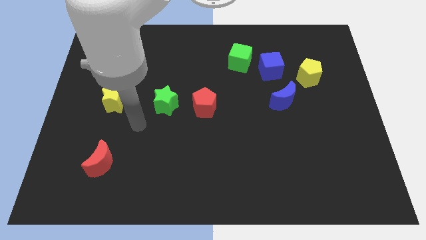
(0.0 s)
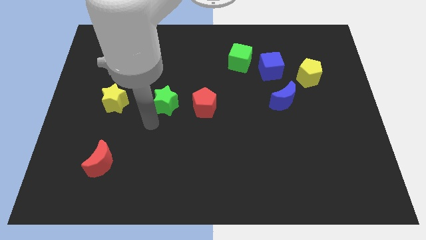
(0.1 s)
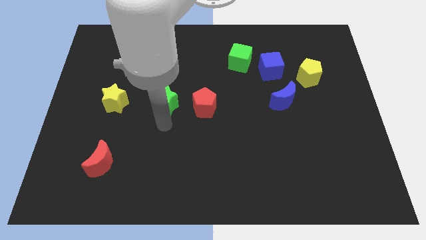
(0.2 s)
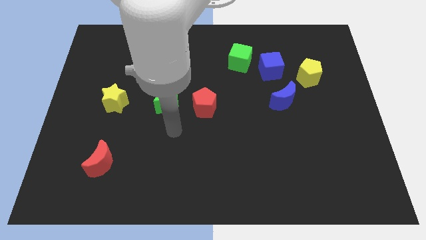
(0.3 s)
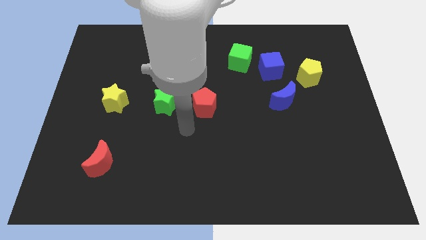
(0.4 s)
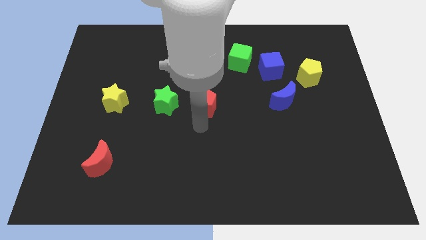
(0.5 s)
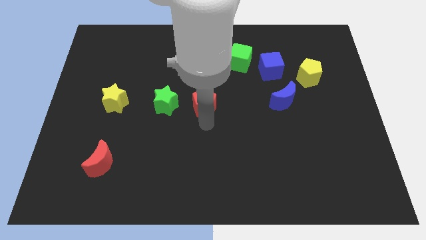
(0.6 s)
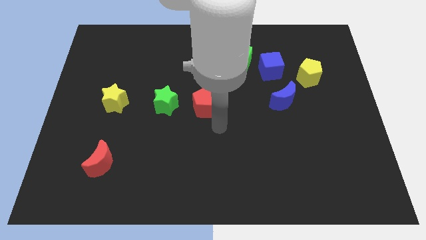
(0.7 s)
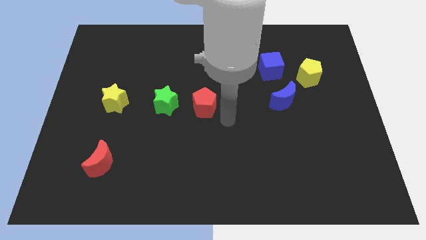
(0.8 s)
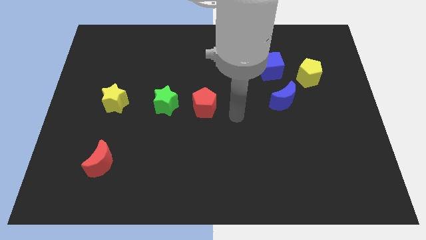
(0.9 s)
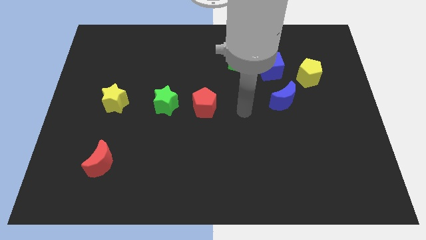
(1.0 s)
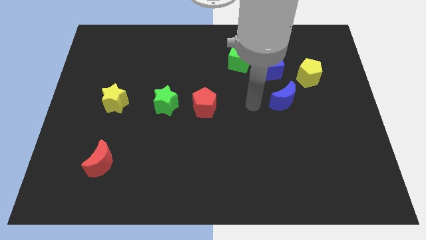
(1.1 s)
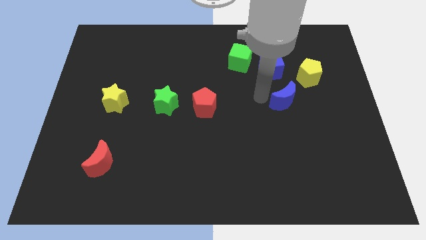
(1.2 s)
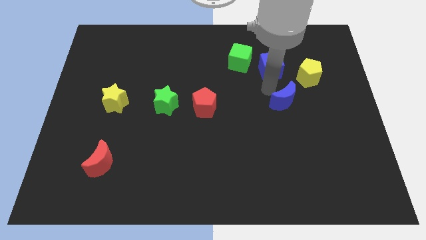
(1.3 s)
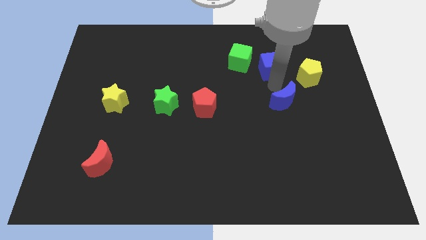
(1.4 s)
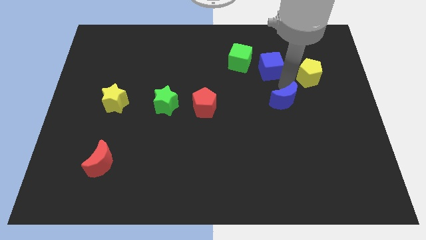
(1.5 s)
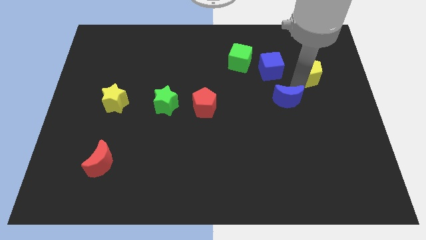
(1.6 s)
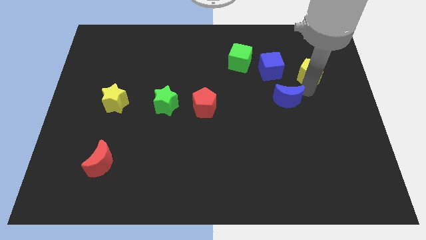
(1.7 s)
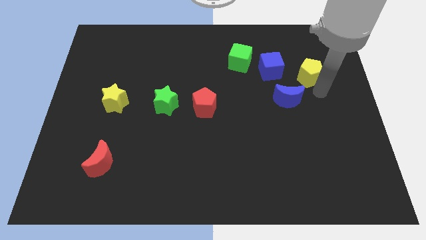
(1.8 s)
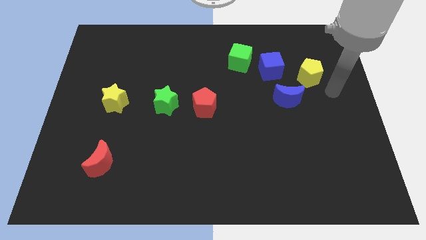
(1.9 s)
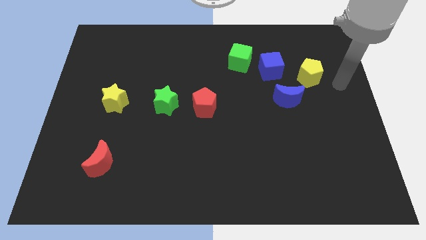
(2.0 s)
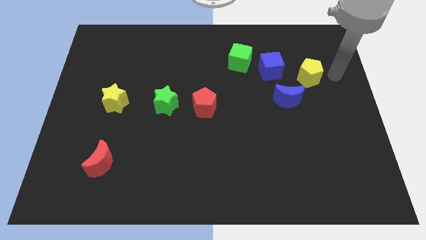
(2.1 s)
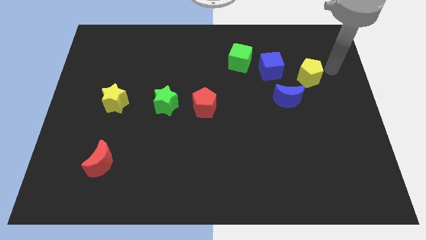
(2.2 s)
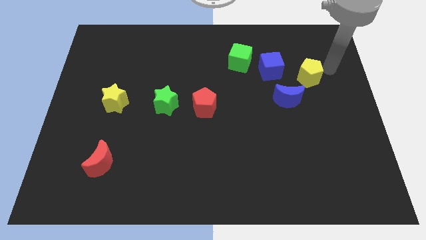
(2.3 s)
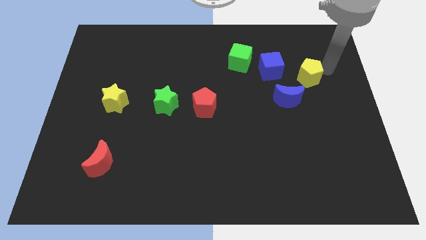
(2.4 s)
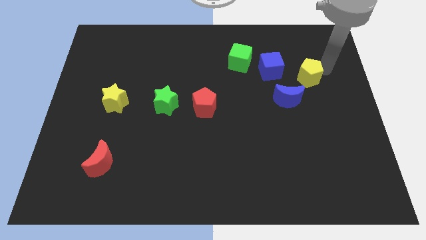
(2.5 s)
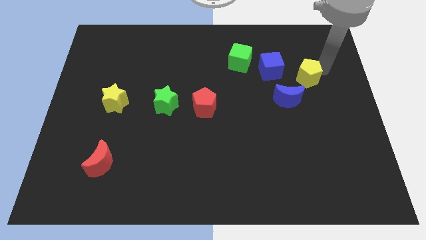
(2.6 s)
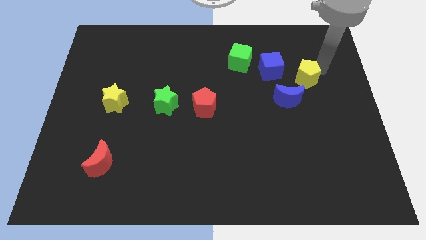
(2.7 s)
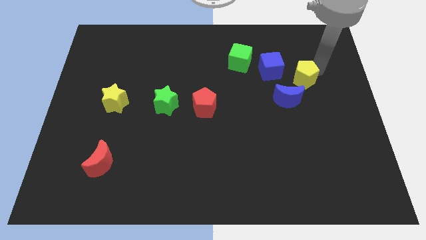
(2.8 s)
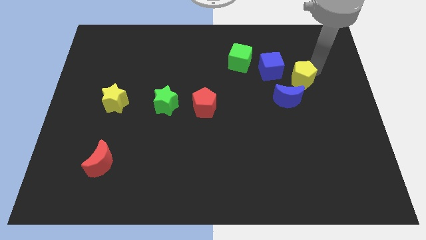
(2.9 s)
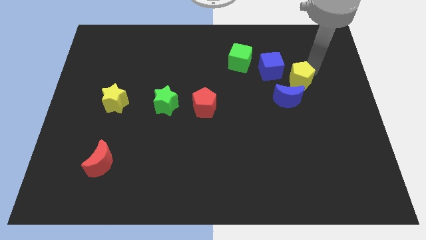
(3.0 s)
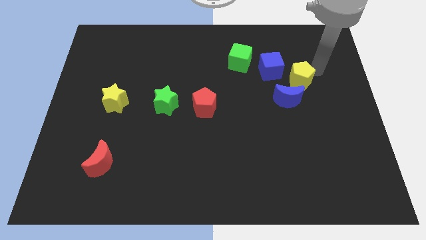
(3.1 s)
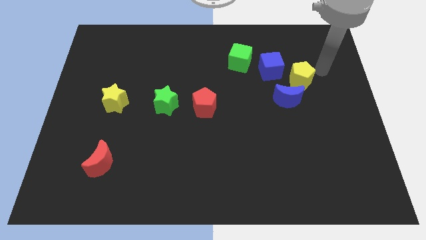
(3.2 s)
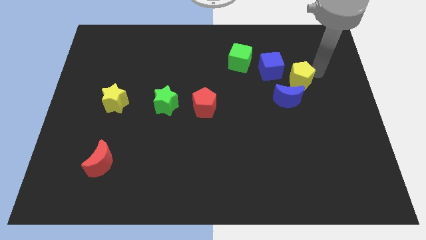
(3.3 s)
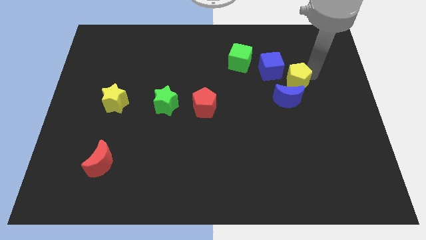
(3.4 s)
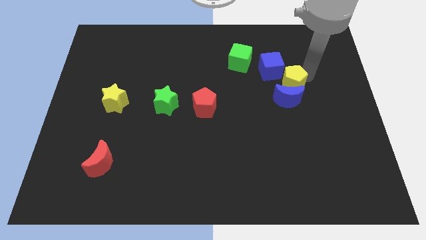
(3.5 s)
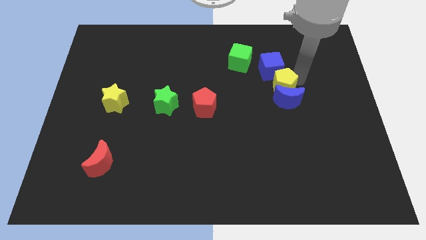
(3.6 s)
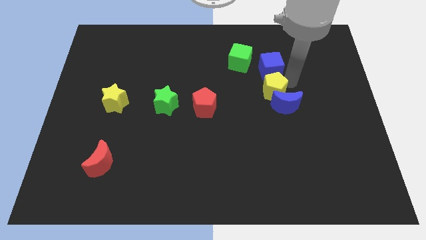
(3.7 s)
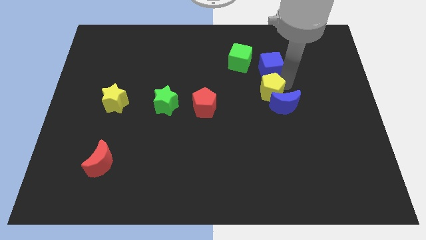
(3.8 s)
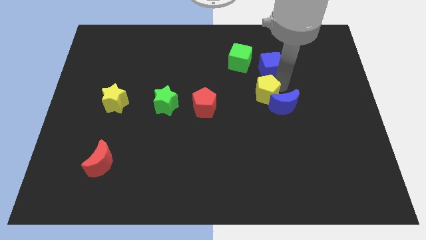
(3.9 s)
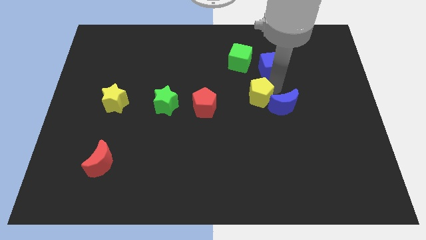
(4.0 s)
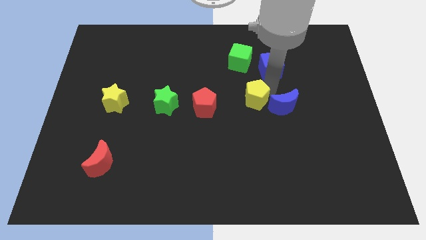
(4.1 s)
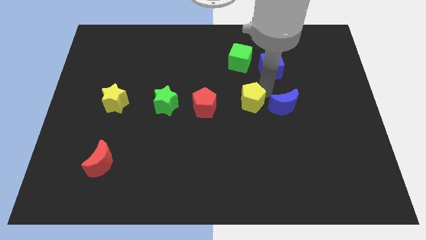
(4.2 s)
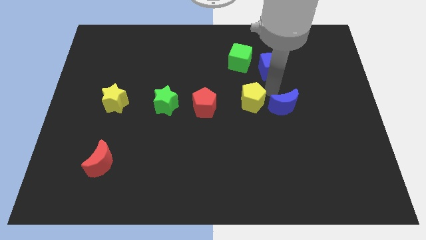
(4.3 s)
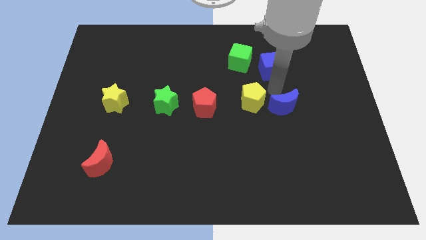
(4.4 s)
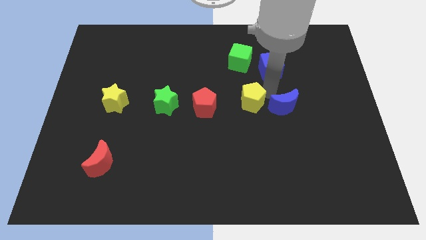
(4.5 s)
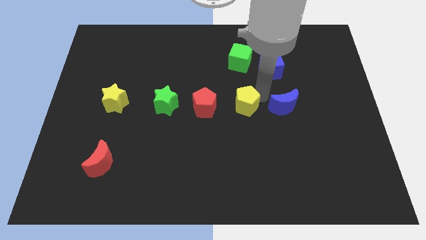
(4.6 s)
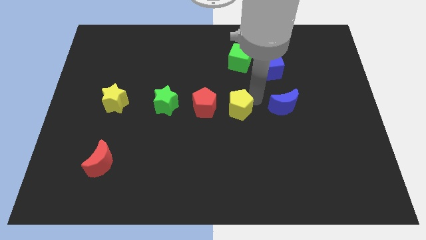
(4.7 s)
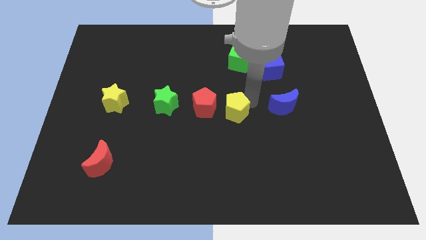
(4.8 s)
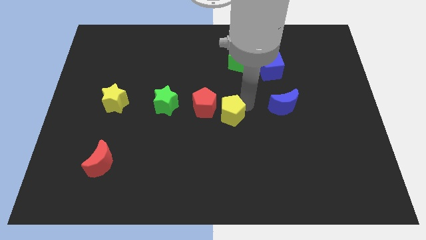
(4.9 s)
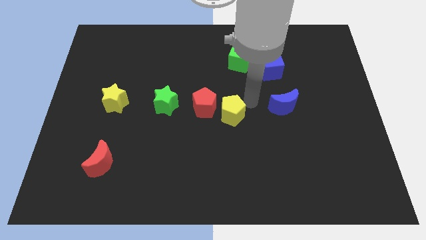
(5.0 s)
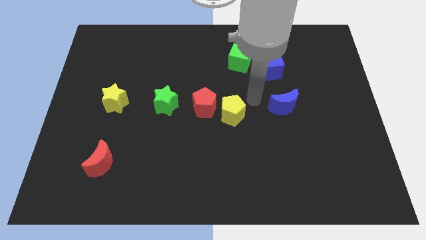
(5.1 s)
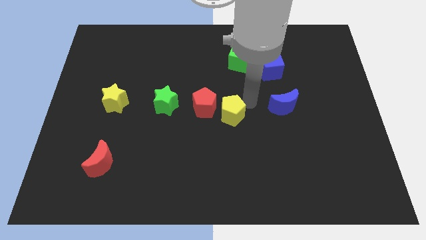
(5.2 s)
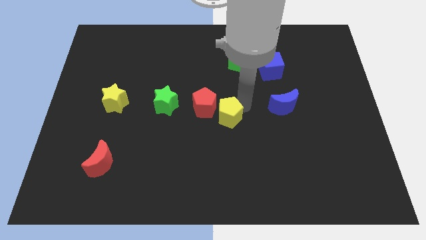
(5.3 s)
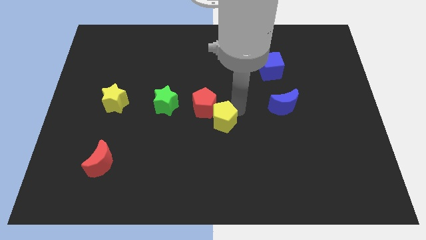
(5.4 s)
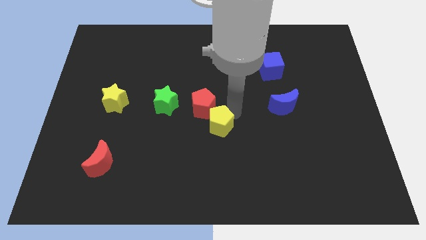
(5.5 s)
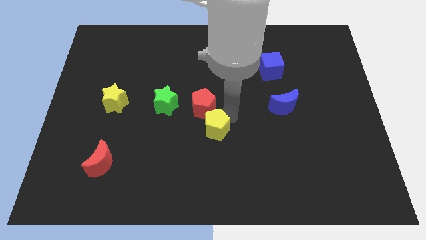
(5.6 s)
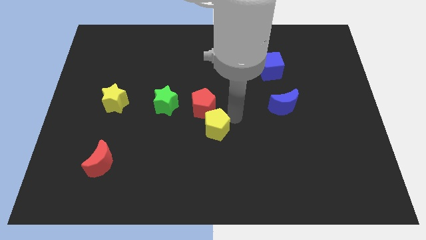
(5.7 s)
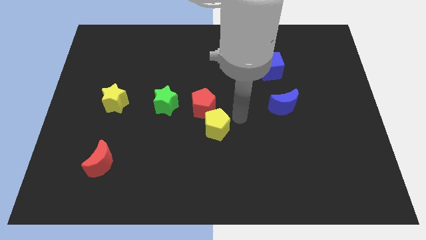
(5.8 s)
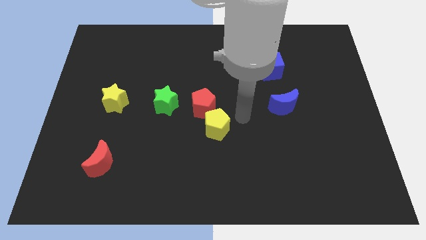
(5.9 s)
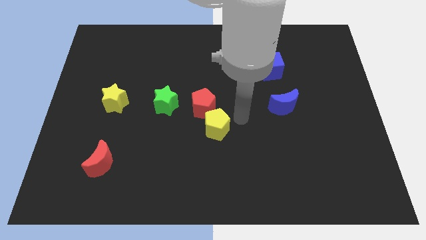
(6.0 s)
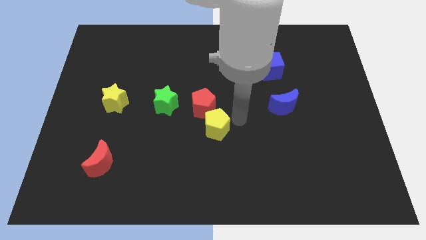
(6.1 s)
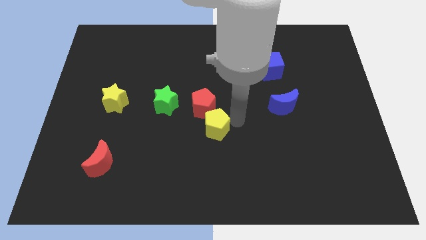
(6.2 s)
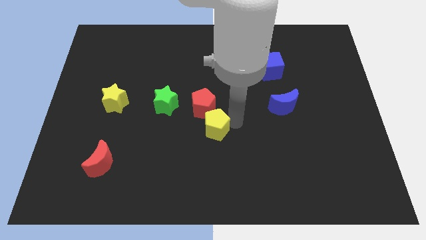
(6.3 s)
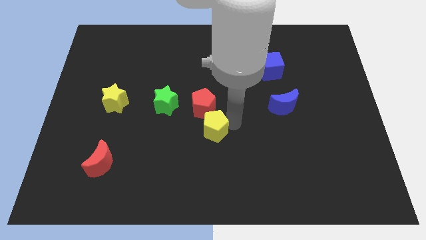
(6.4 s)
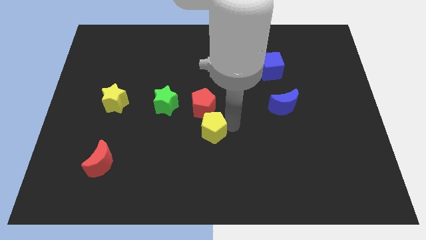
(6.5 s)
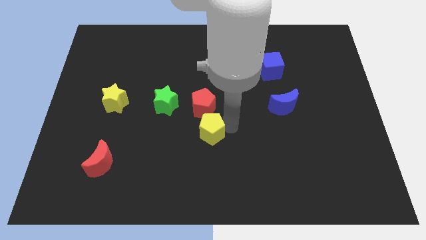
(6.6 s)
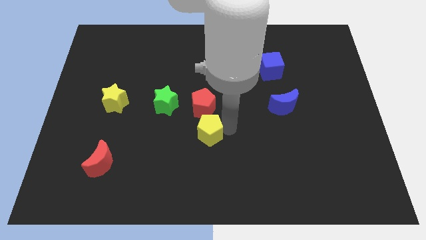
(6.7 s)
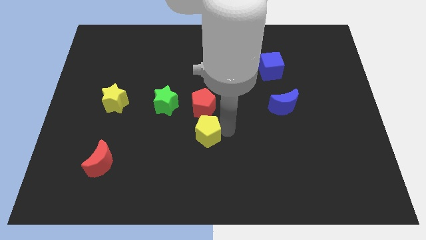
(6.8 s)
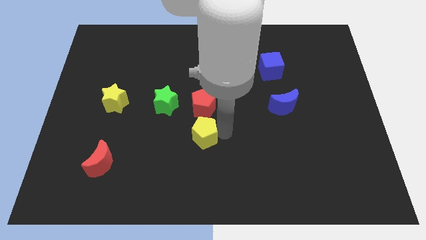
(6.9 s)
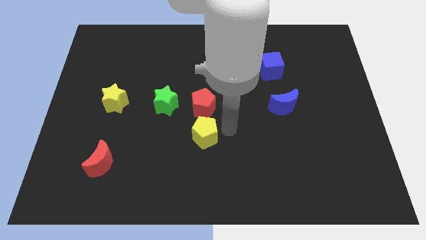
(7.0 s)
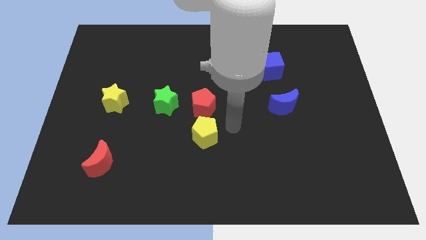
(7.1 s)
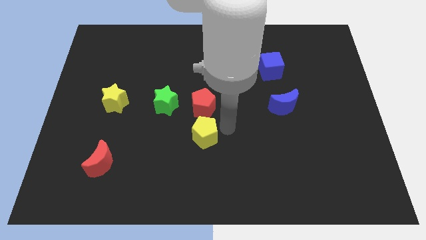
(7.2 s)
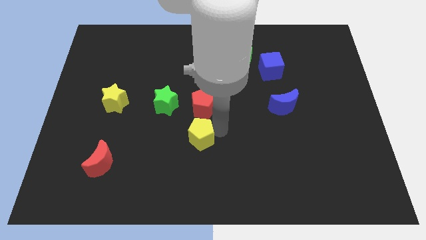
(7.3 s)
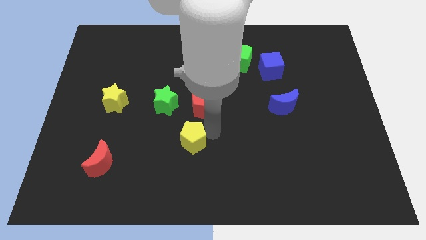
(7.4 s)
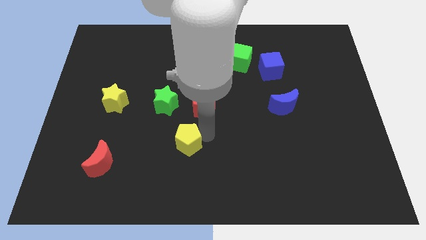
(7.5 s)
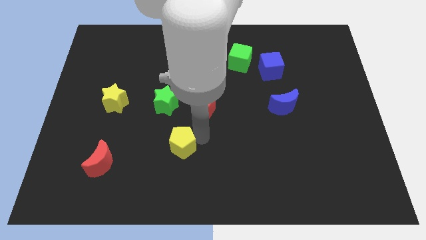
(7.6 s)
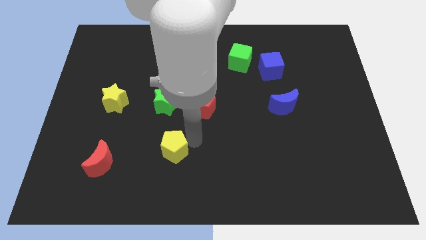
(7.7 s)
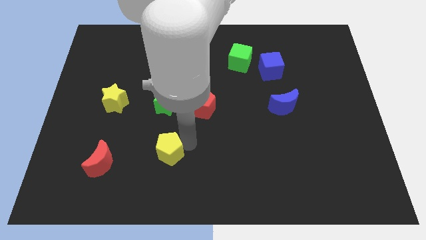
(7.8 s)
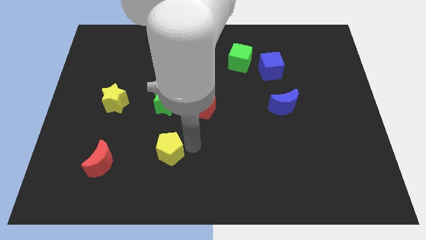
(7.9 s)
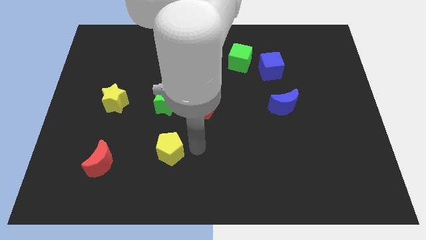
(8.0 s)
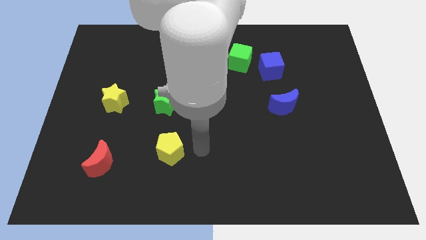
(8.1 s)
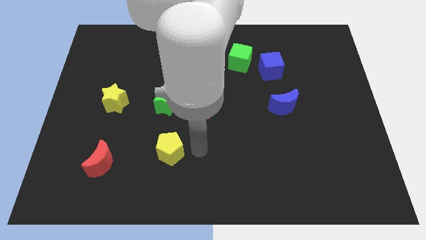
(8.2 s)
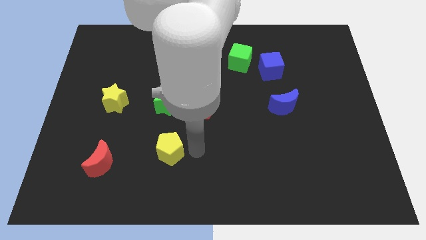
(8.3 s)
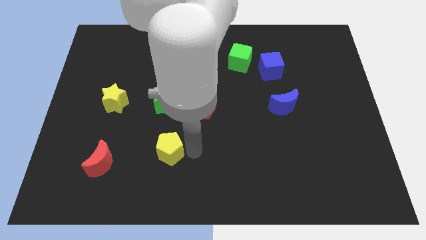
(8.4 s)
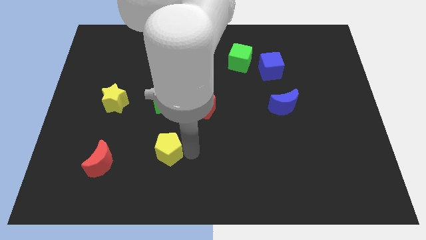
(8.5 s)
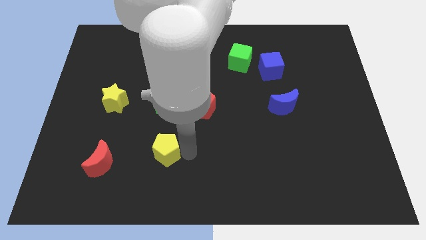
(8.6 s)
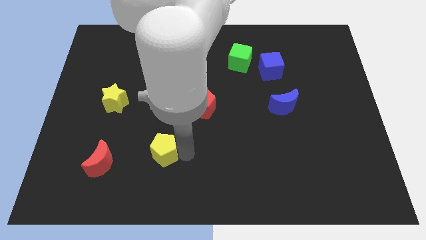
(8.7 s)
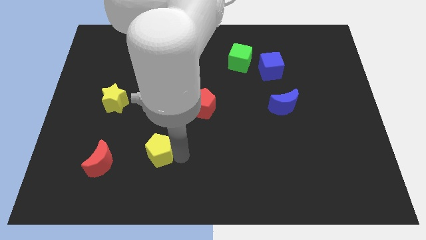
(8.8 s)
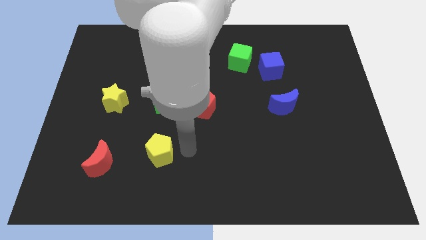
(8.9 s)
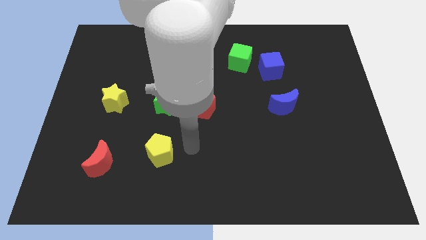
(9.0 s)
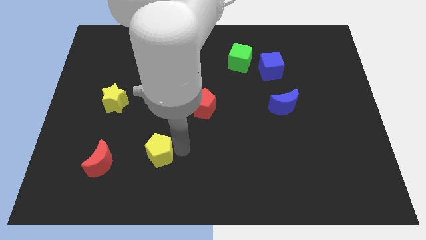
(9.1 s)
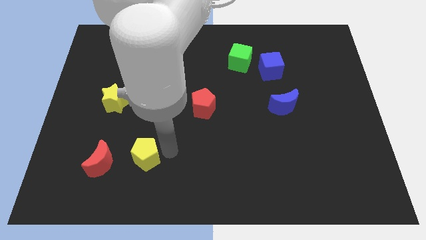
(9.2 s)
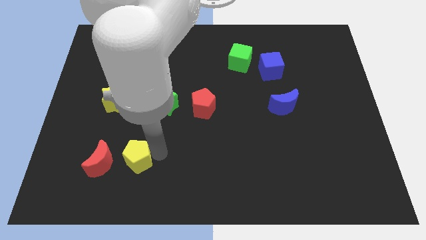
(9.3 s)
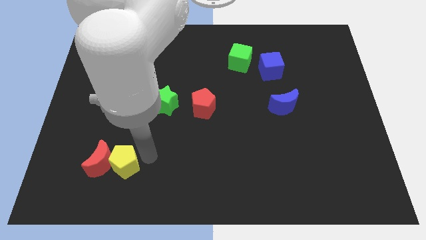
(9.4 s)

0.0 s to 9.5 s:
put the yellow pentagon next to the red moon
